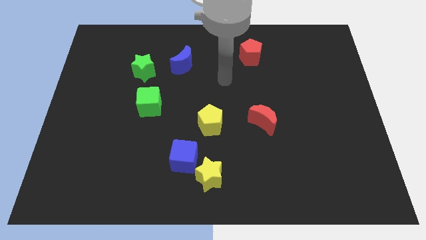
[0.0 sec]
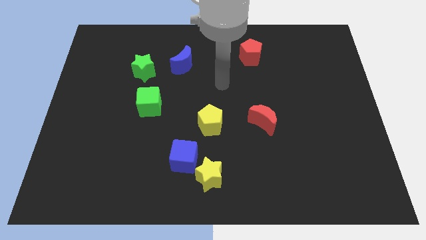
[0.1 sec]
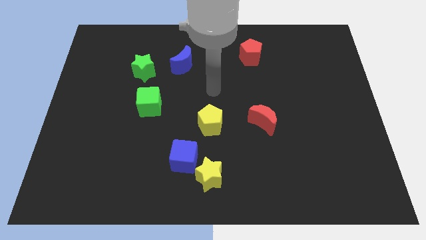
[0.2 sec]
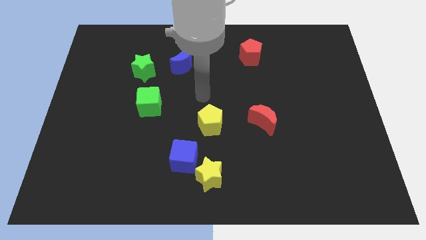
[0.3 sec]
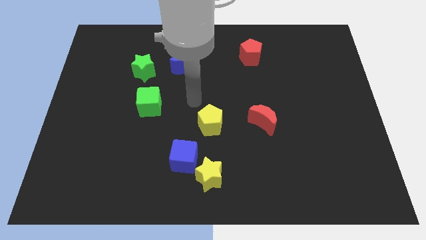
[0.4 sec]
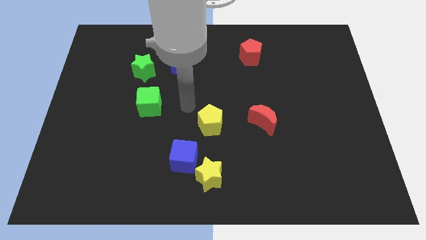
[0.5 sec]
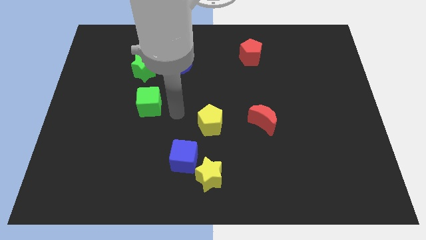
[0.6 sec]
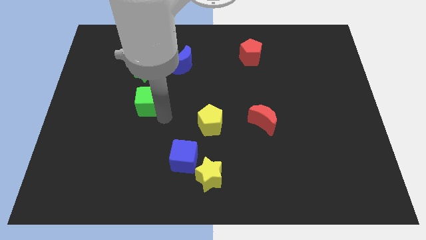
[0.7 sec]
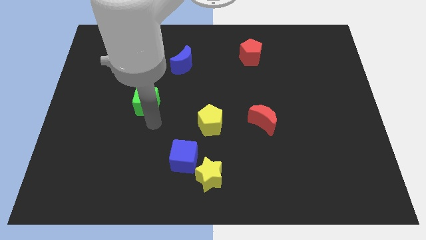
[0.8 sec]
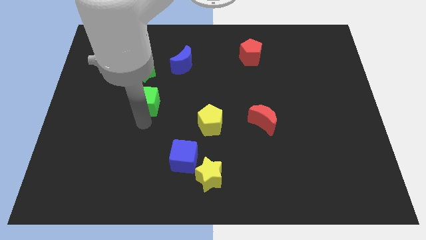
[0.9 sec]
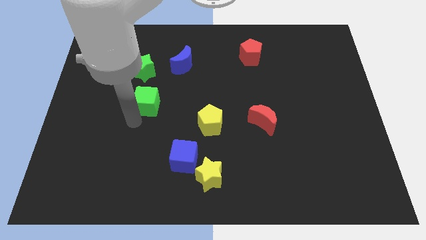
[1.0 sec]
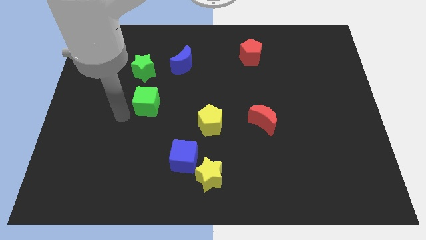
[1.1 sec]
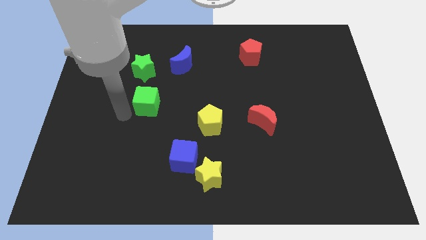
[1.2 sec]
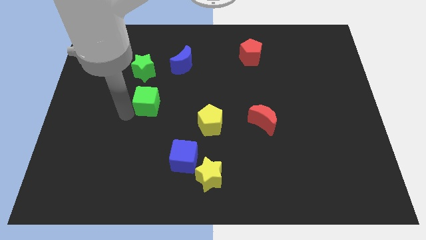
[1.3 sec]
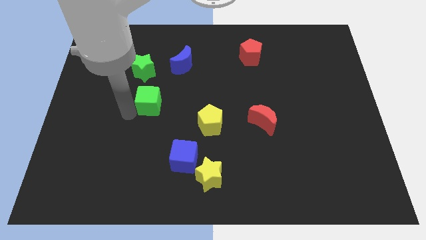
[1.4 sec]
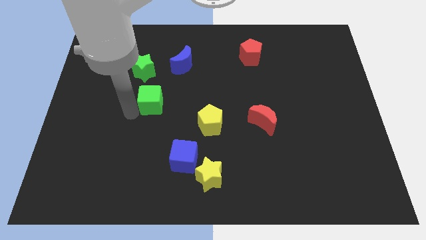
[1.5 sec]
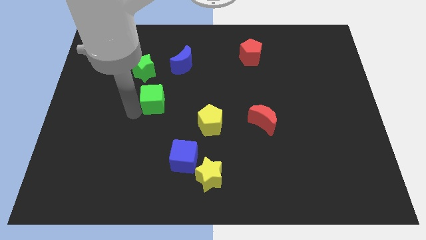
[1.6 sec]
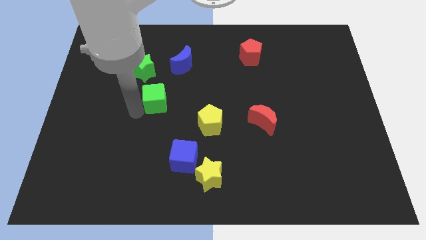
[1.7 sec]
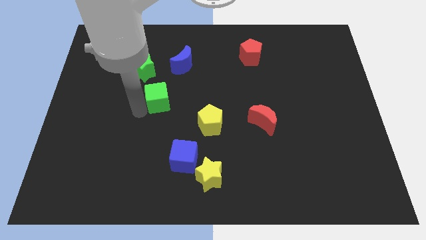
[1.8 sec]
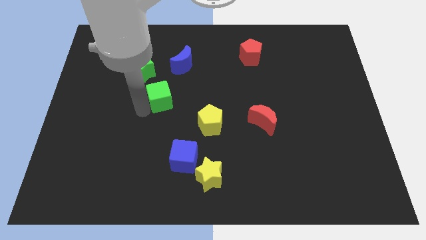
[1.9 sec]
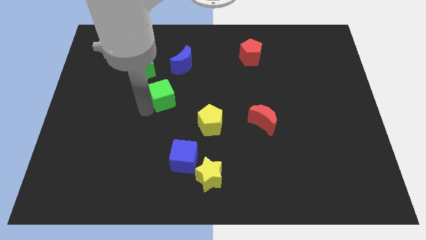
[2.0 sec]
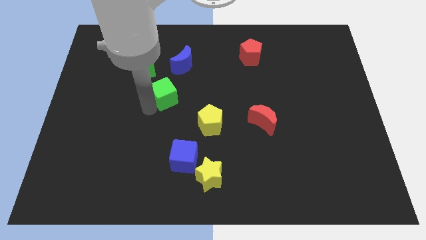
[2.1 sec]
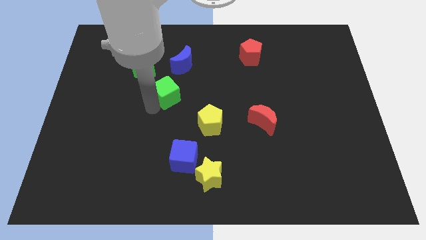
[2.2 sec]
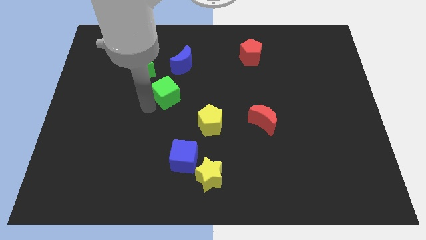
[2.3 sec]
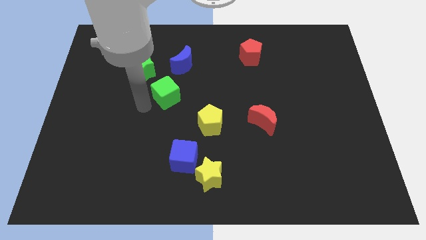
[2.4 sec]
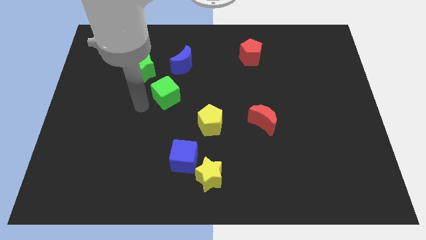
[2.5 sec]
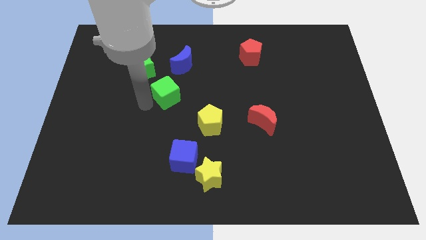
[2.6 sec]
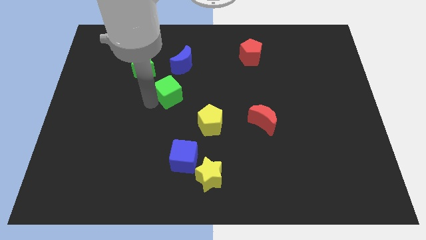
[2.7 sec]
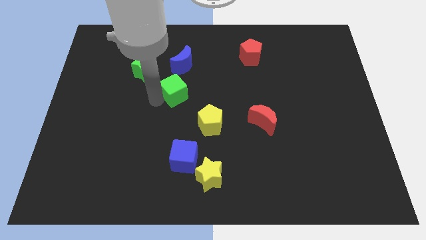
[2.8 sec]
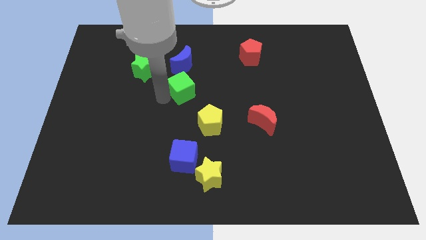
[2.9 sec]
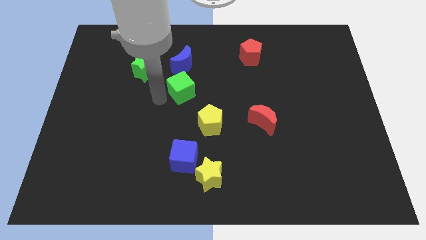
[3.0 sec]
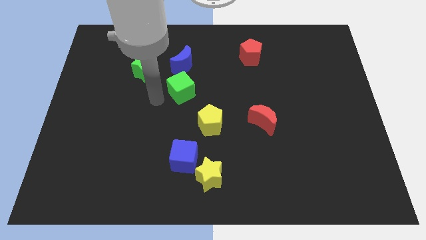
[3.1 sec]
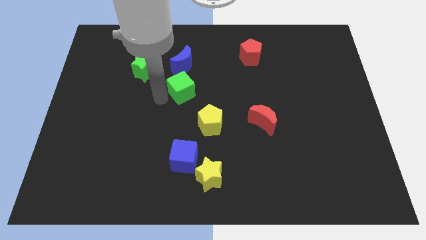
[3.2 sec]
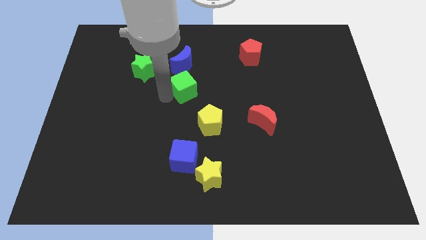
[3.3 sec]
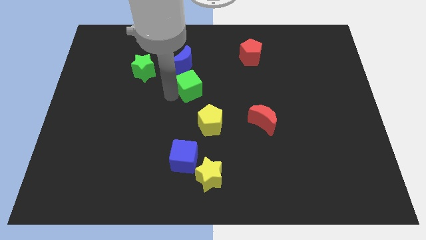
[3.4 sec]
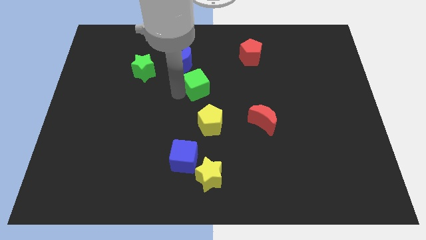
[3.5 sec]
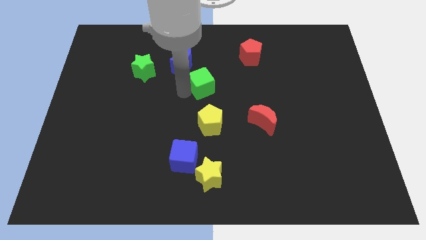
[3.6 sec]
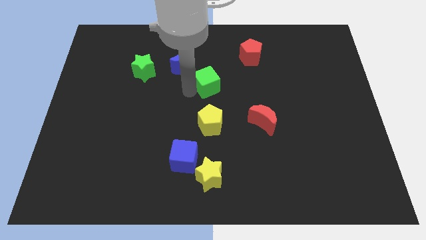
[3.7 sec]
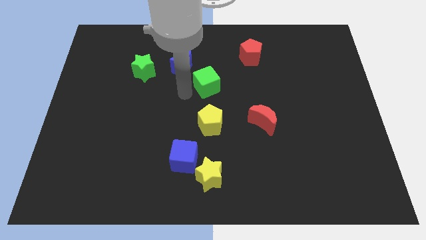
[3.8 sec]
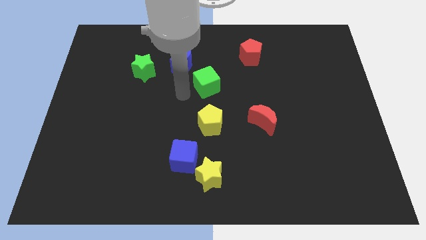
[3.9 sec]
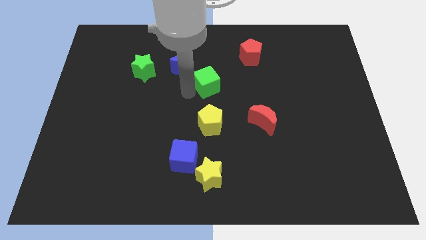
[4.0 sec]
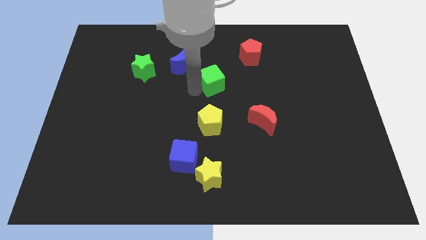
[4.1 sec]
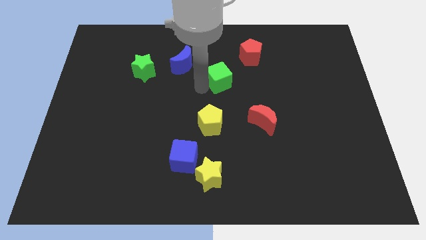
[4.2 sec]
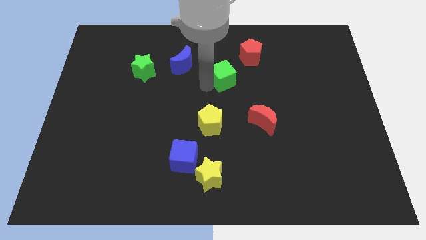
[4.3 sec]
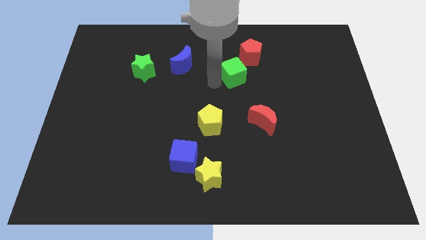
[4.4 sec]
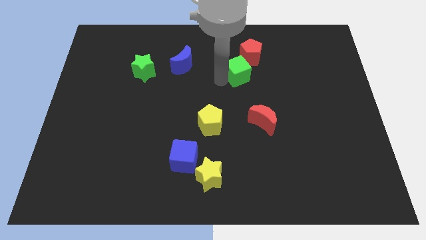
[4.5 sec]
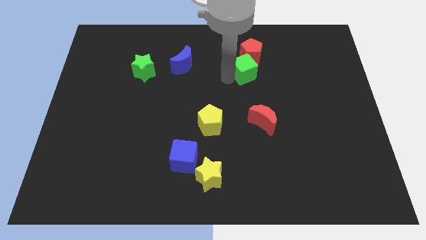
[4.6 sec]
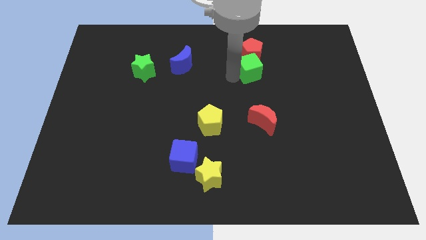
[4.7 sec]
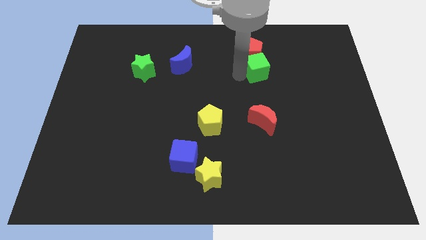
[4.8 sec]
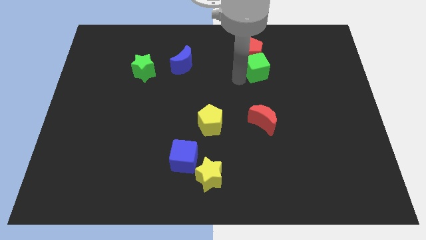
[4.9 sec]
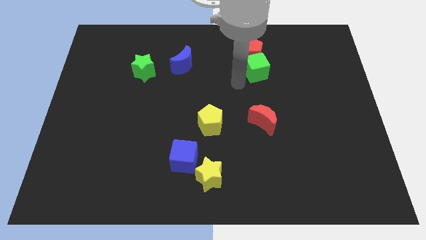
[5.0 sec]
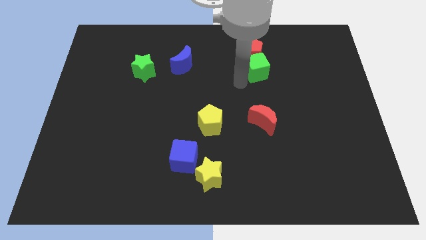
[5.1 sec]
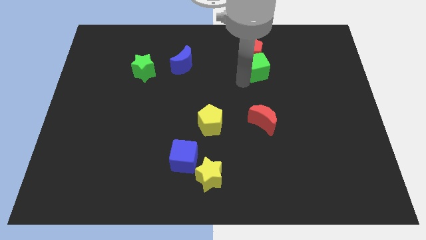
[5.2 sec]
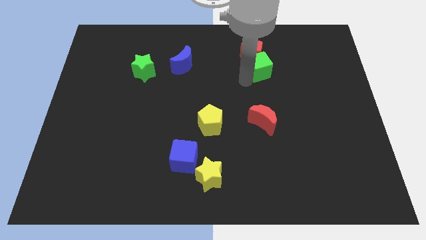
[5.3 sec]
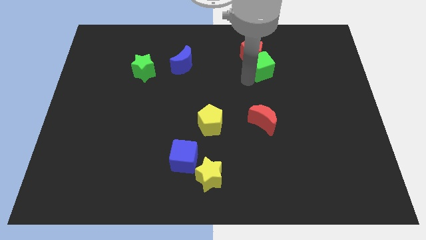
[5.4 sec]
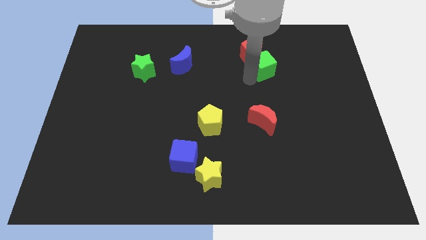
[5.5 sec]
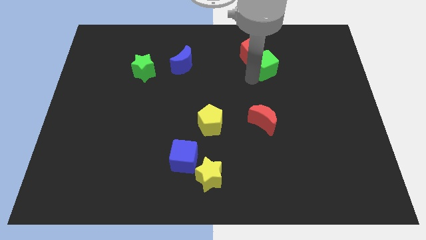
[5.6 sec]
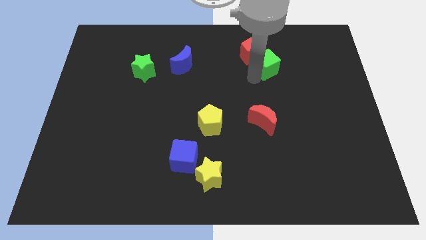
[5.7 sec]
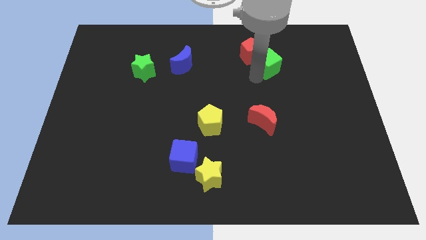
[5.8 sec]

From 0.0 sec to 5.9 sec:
put the green cube to the right side of the red pentagon

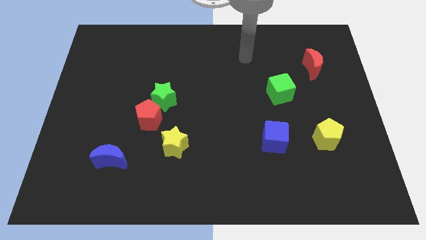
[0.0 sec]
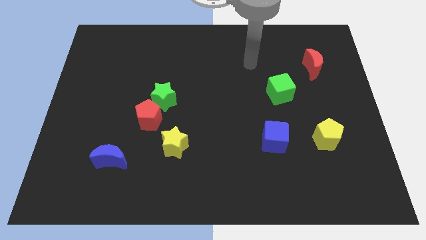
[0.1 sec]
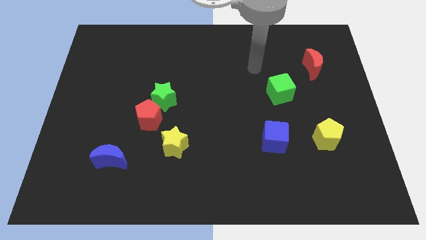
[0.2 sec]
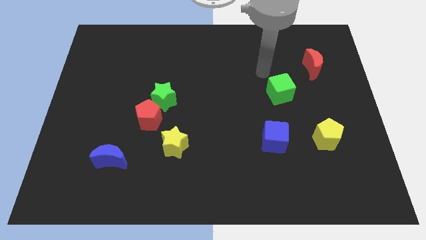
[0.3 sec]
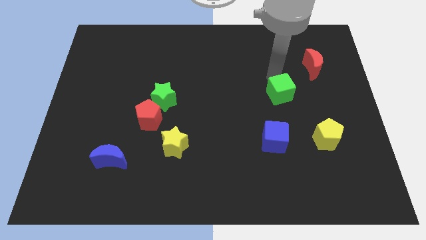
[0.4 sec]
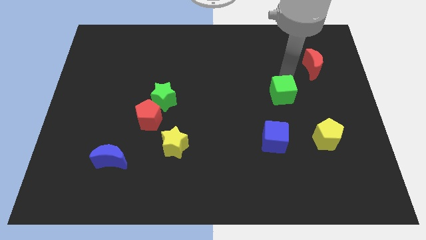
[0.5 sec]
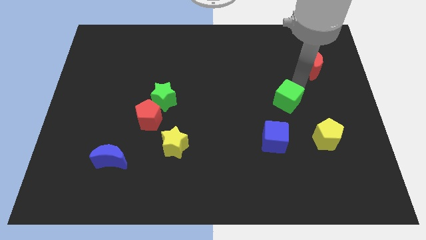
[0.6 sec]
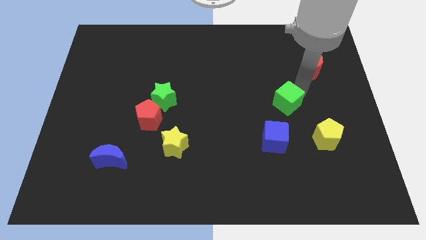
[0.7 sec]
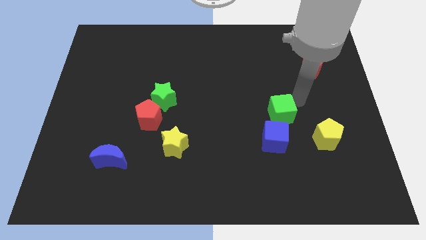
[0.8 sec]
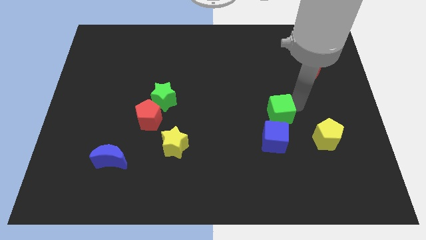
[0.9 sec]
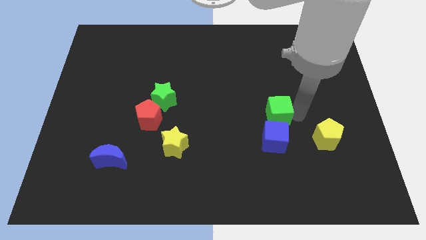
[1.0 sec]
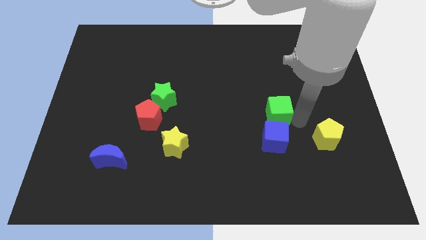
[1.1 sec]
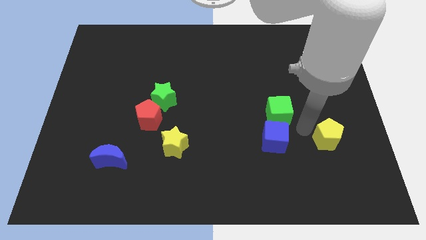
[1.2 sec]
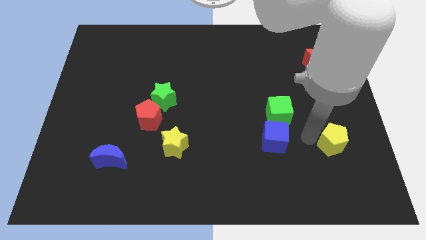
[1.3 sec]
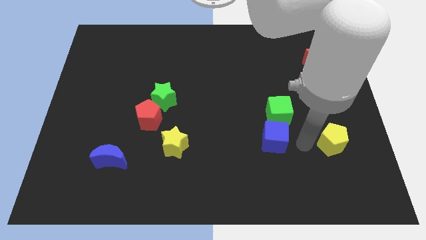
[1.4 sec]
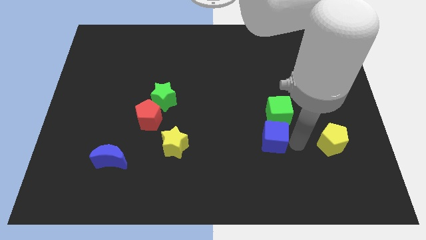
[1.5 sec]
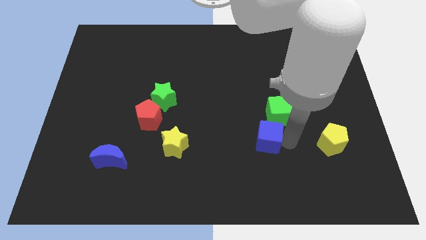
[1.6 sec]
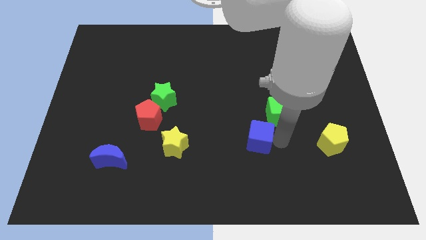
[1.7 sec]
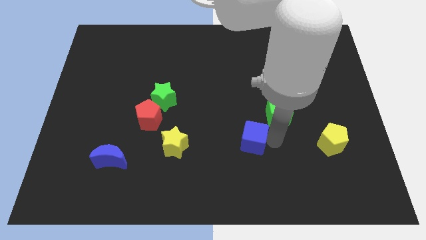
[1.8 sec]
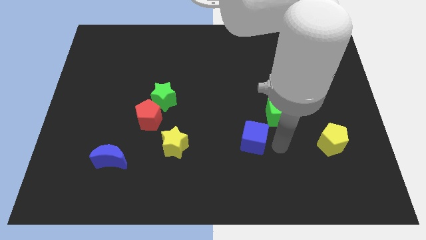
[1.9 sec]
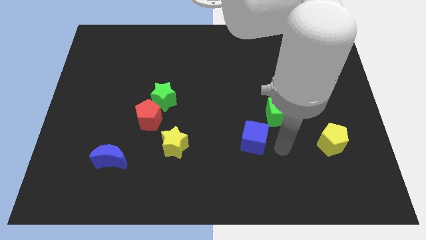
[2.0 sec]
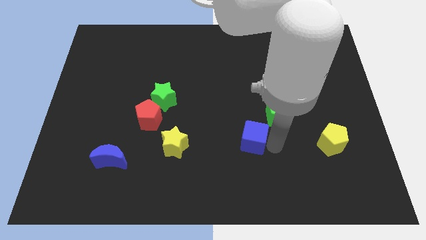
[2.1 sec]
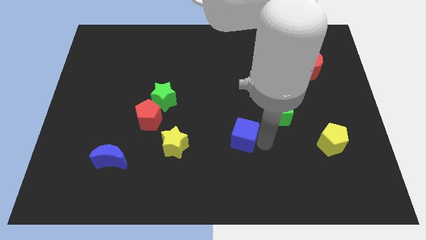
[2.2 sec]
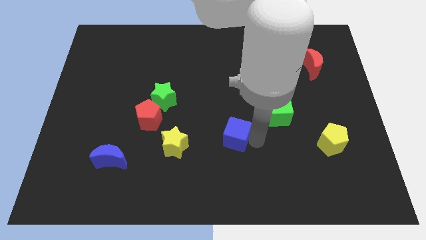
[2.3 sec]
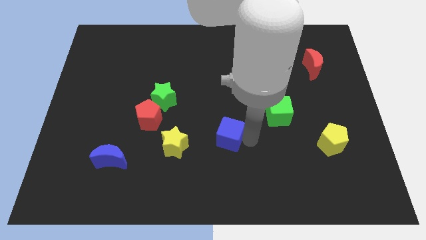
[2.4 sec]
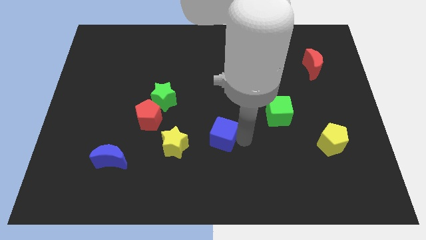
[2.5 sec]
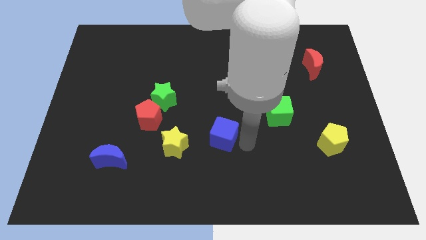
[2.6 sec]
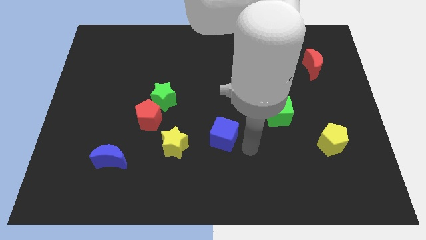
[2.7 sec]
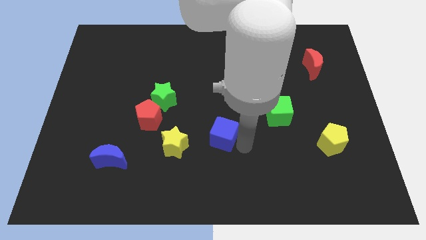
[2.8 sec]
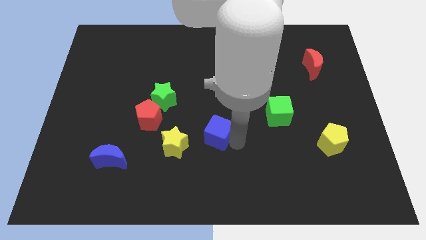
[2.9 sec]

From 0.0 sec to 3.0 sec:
move the blue cube to the top right side of the yellow star
